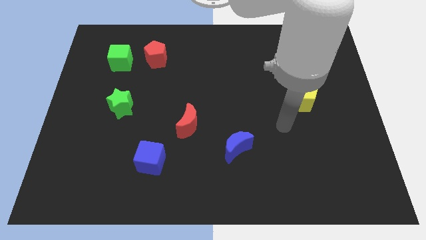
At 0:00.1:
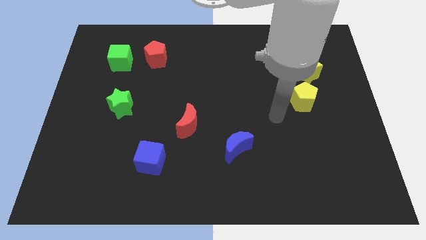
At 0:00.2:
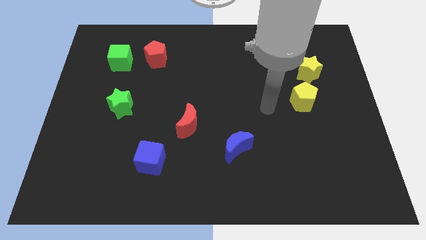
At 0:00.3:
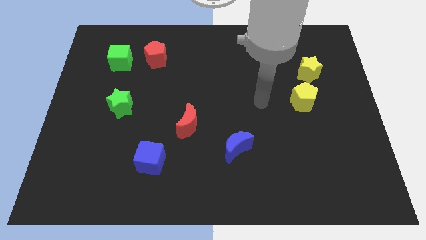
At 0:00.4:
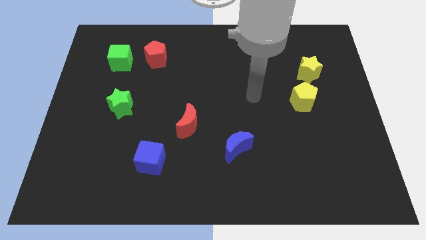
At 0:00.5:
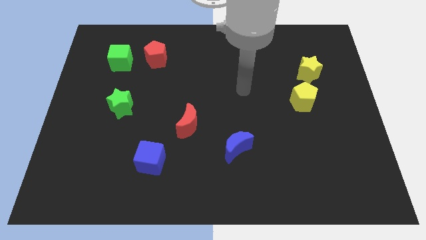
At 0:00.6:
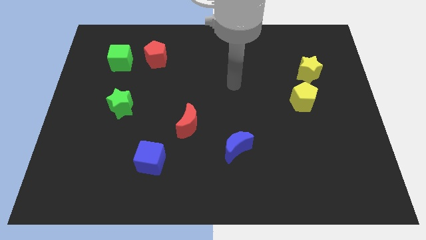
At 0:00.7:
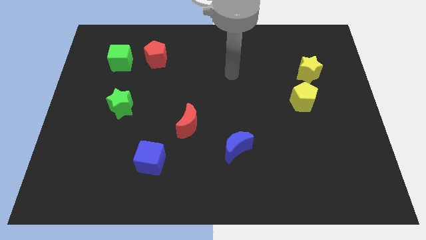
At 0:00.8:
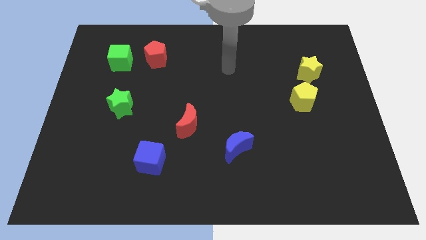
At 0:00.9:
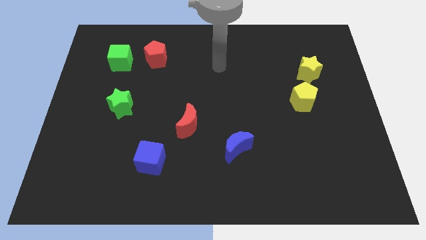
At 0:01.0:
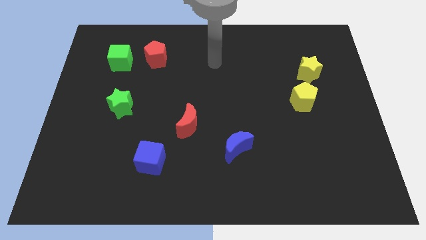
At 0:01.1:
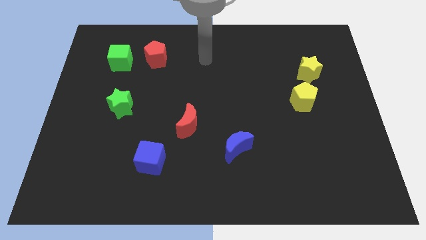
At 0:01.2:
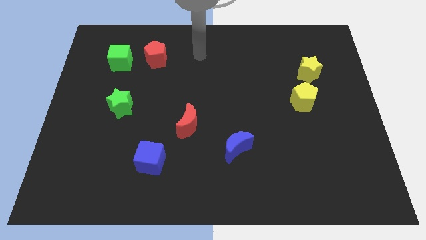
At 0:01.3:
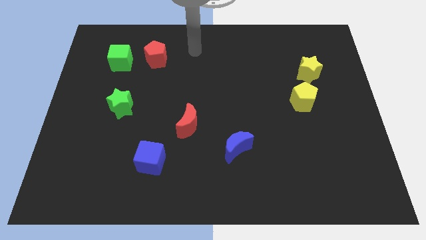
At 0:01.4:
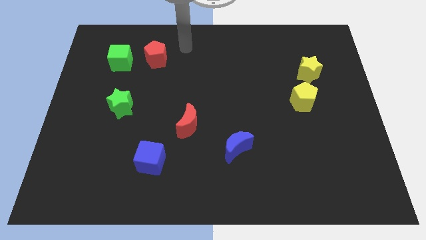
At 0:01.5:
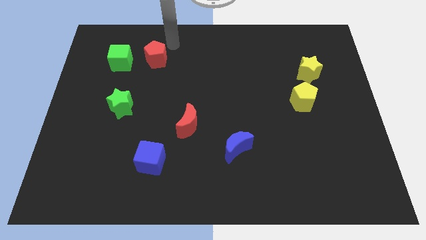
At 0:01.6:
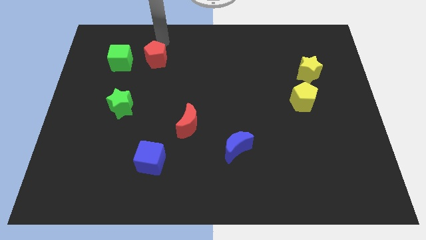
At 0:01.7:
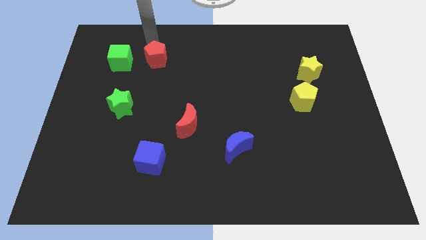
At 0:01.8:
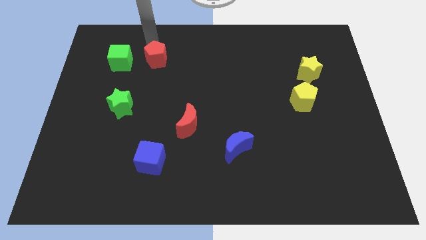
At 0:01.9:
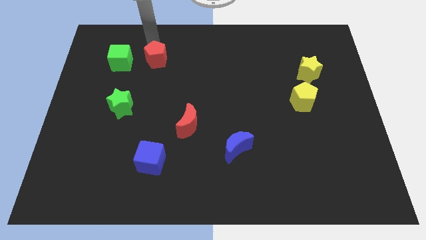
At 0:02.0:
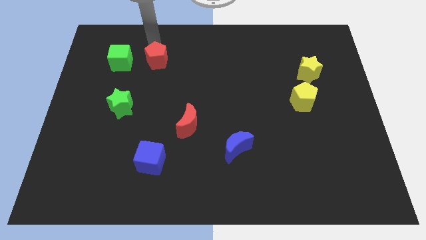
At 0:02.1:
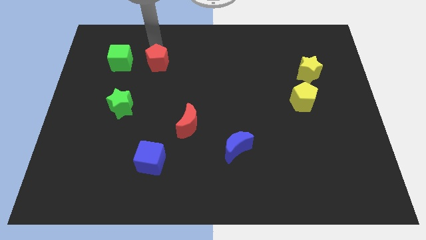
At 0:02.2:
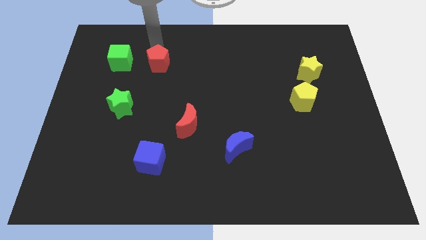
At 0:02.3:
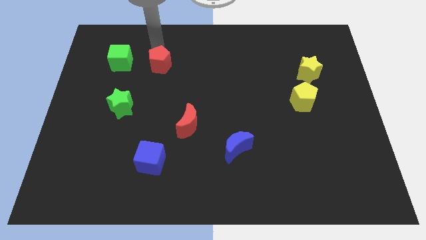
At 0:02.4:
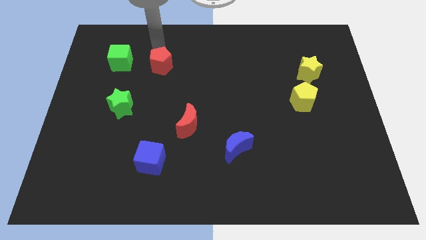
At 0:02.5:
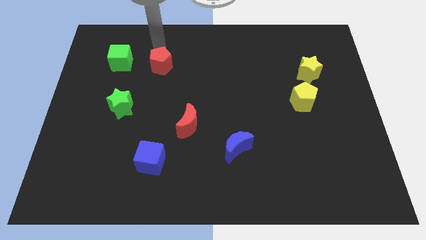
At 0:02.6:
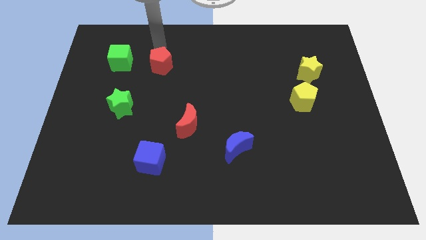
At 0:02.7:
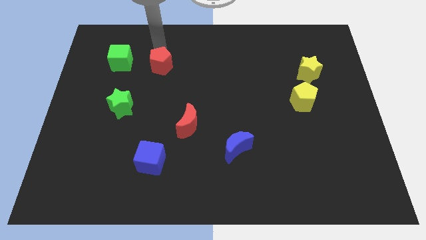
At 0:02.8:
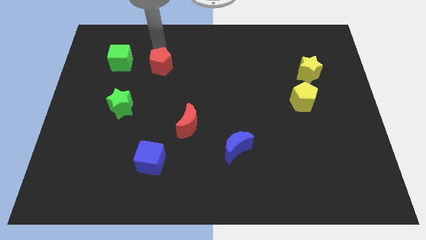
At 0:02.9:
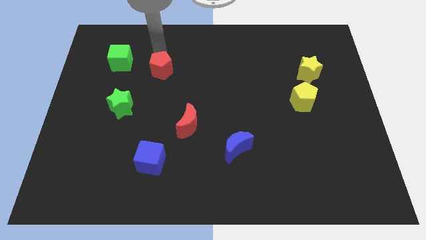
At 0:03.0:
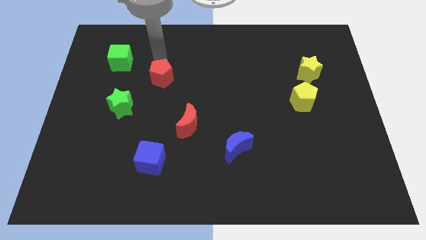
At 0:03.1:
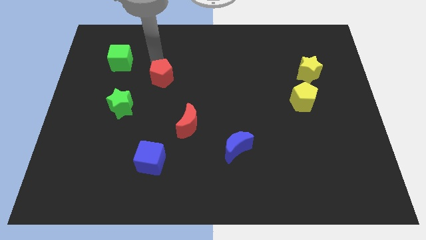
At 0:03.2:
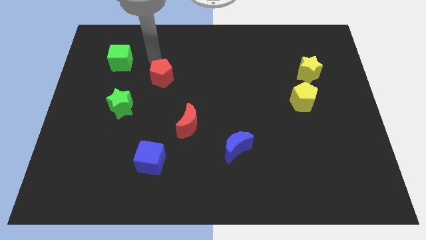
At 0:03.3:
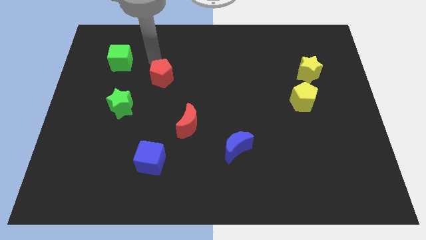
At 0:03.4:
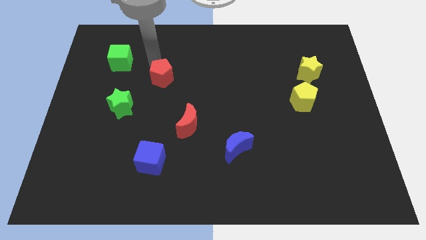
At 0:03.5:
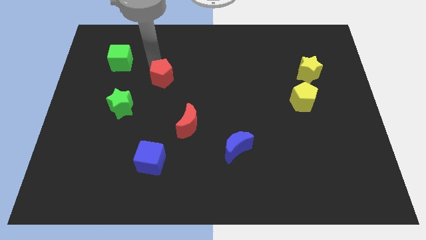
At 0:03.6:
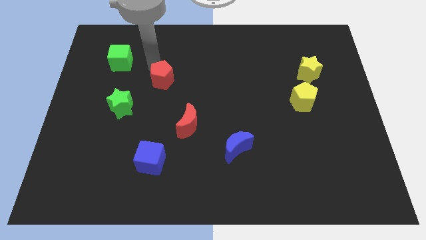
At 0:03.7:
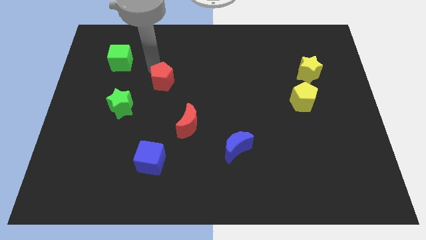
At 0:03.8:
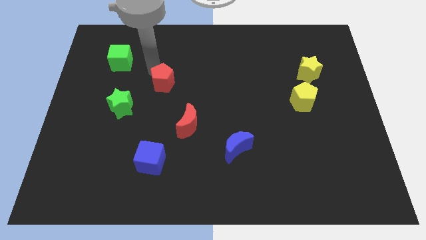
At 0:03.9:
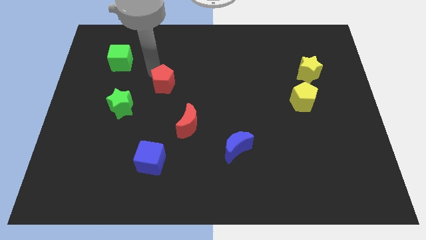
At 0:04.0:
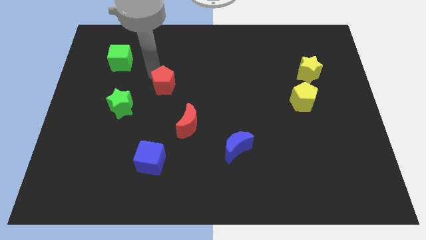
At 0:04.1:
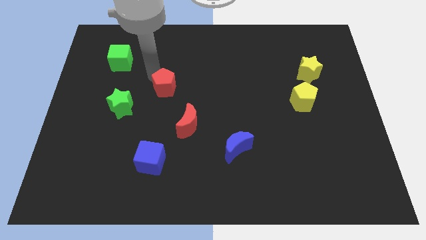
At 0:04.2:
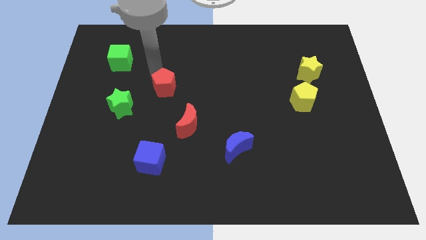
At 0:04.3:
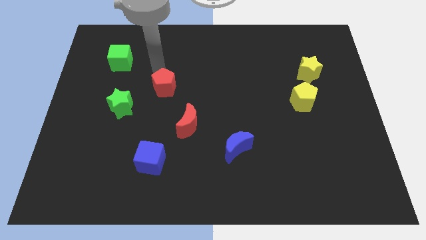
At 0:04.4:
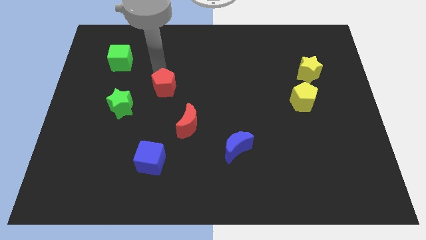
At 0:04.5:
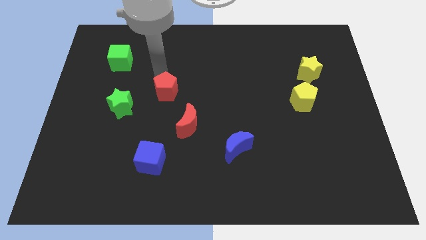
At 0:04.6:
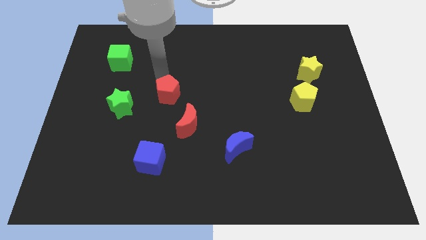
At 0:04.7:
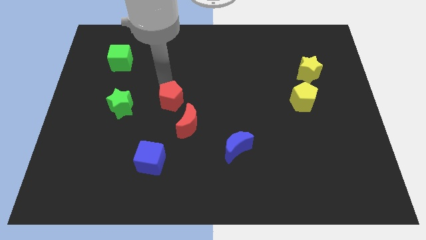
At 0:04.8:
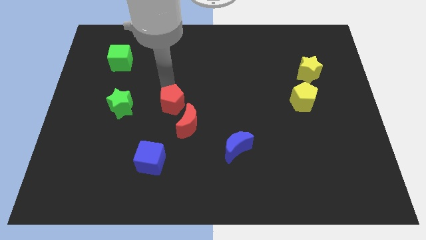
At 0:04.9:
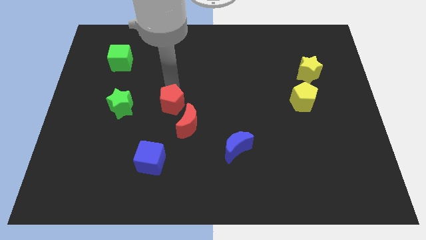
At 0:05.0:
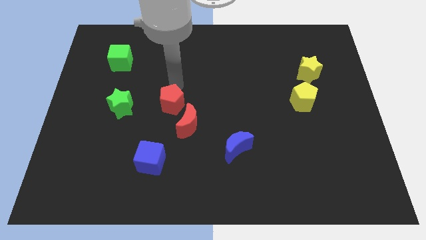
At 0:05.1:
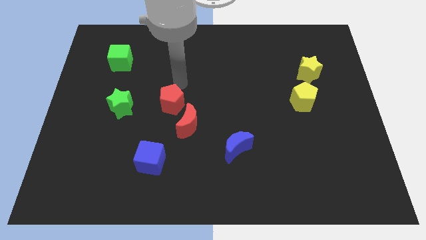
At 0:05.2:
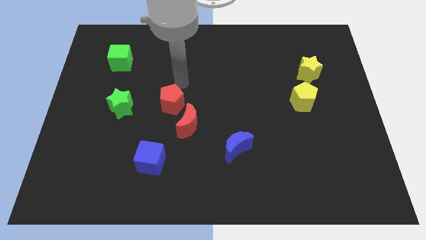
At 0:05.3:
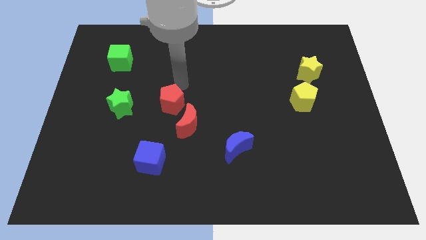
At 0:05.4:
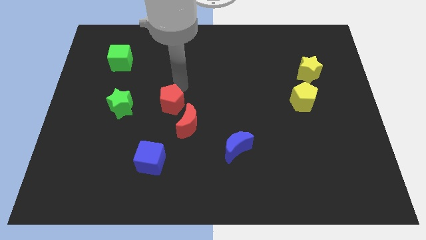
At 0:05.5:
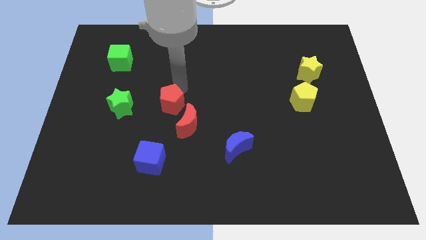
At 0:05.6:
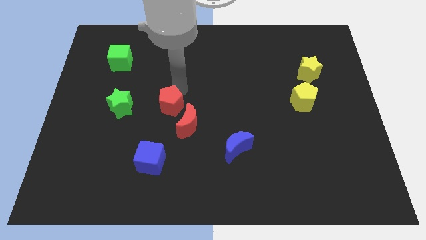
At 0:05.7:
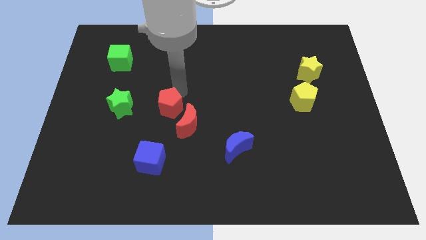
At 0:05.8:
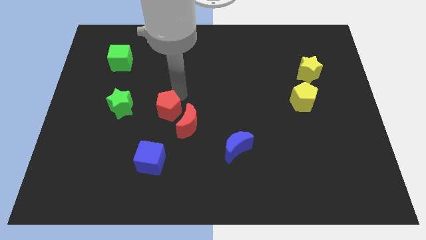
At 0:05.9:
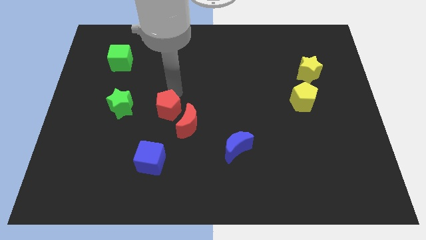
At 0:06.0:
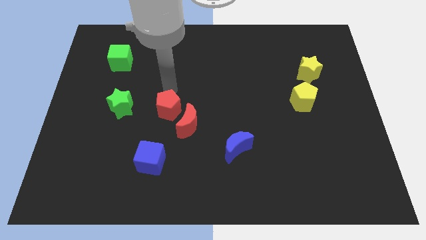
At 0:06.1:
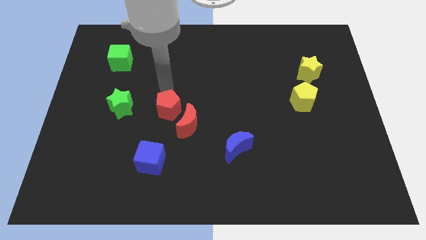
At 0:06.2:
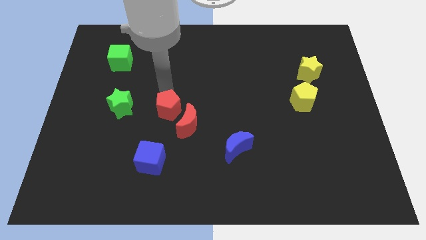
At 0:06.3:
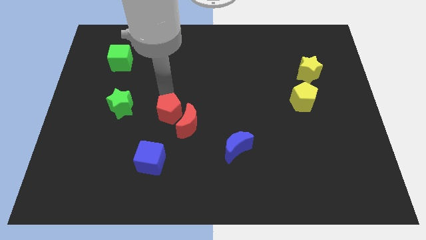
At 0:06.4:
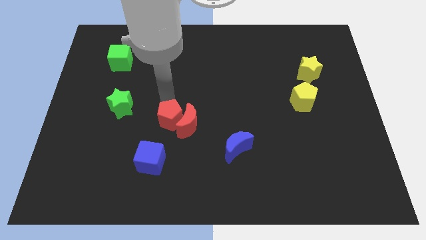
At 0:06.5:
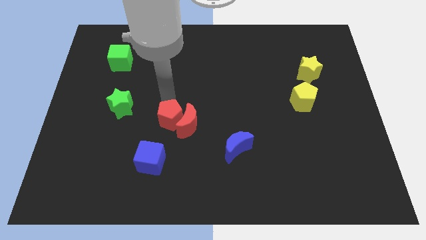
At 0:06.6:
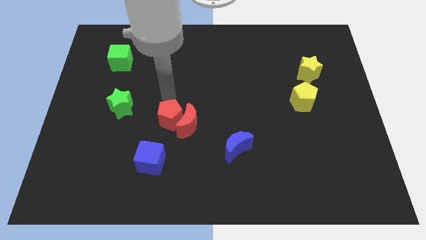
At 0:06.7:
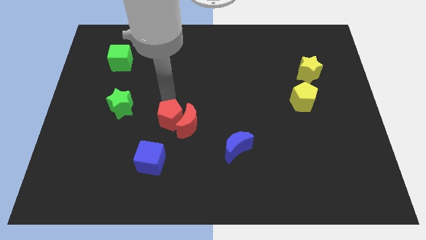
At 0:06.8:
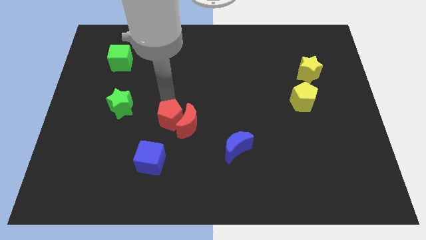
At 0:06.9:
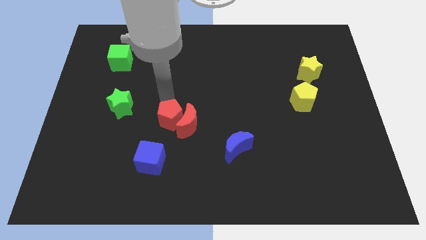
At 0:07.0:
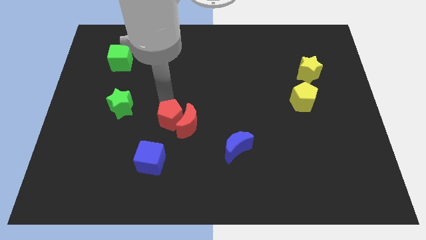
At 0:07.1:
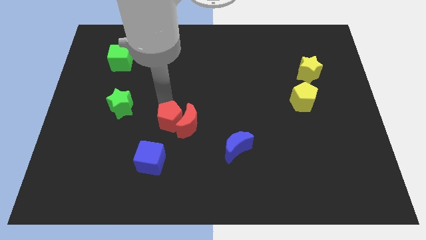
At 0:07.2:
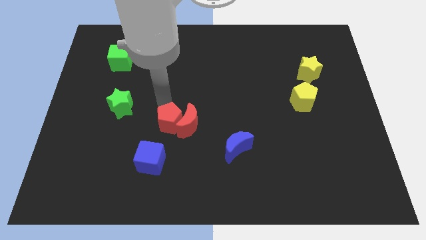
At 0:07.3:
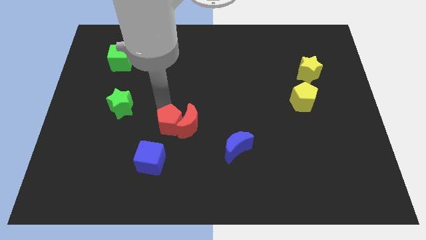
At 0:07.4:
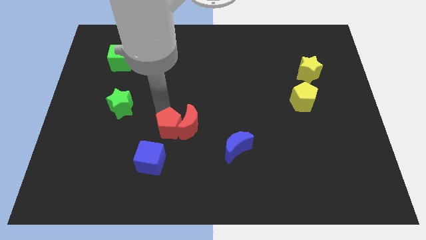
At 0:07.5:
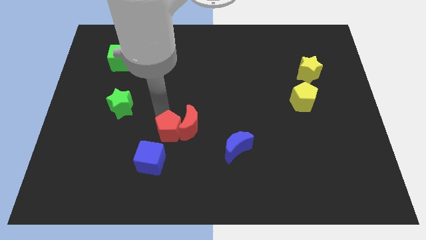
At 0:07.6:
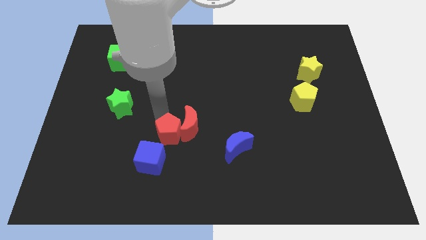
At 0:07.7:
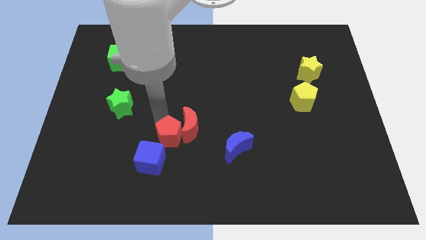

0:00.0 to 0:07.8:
slide the red pentagon just left of the blue moon

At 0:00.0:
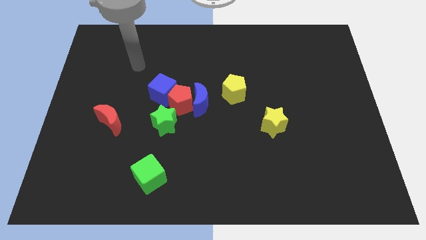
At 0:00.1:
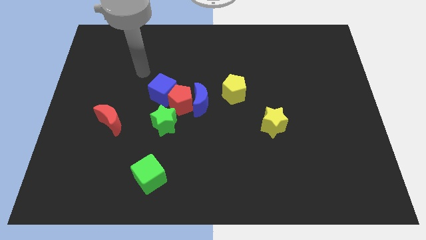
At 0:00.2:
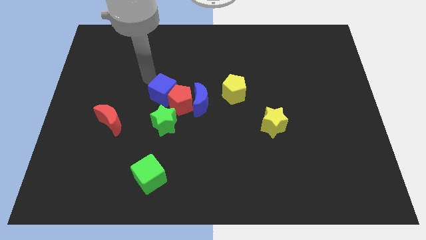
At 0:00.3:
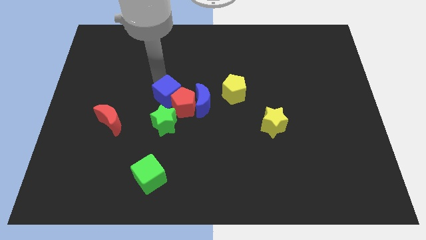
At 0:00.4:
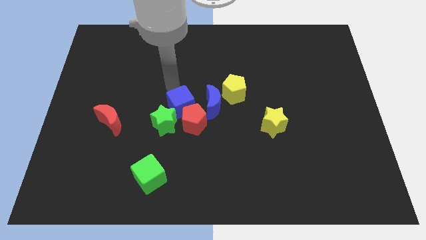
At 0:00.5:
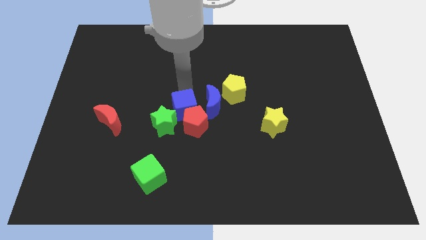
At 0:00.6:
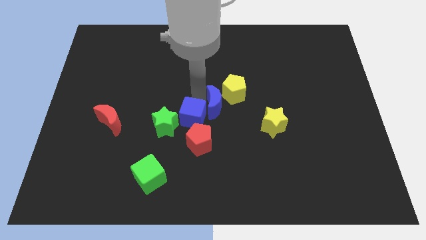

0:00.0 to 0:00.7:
move the red pentagon to the top right of the green cube
